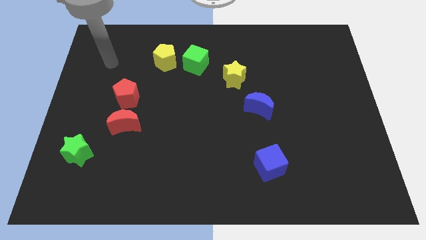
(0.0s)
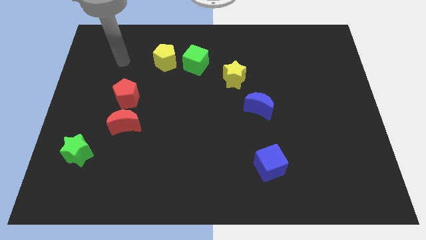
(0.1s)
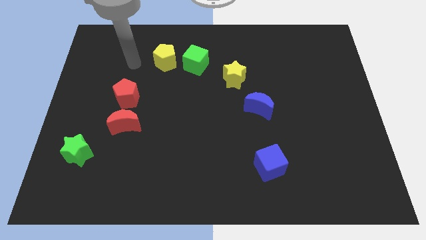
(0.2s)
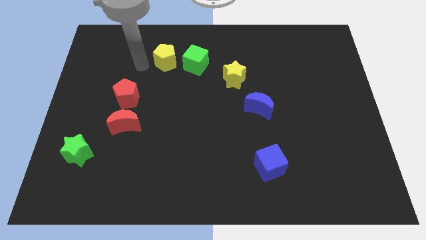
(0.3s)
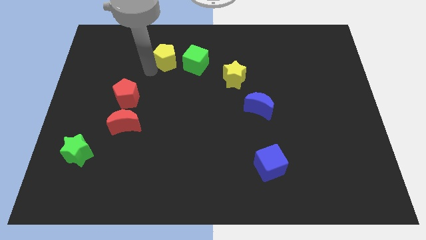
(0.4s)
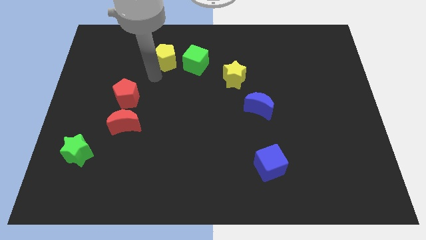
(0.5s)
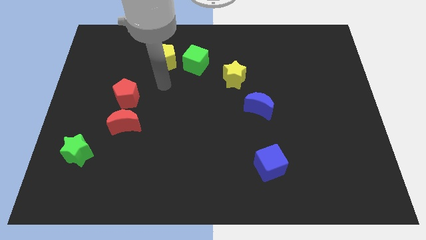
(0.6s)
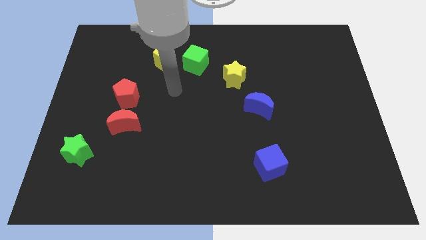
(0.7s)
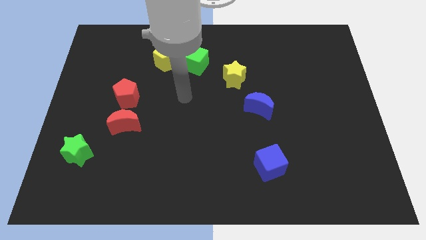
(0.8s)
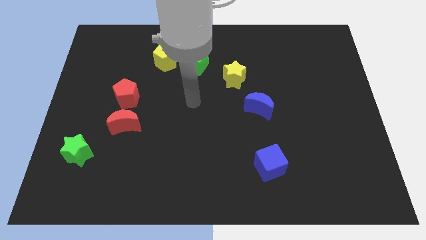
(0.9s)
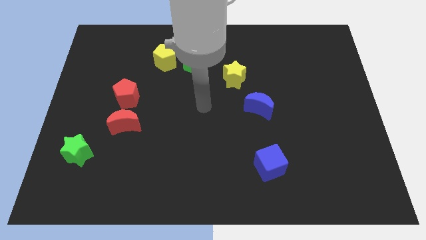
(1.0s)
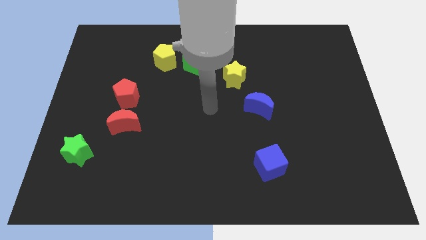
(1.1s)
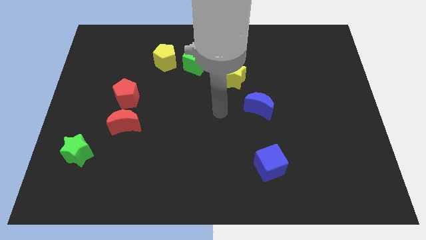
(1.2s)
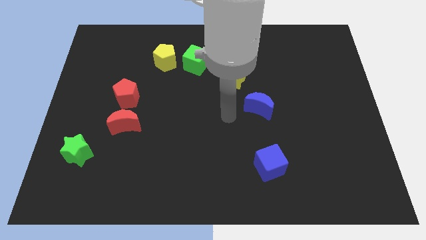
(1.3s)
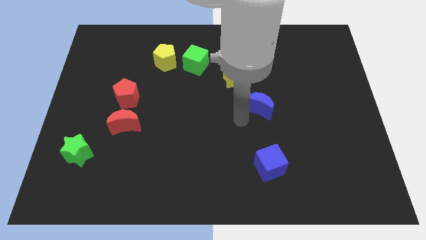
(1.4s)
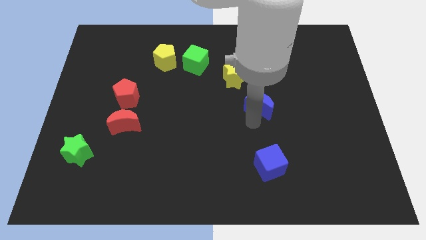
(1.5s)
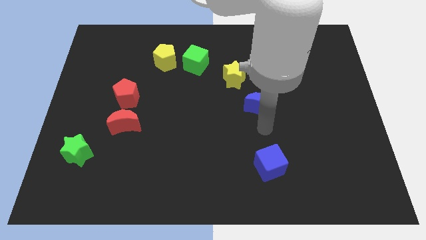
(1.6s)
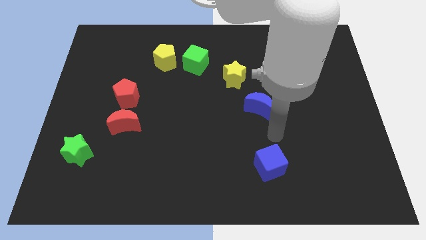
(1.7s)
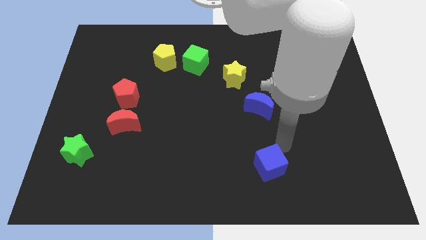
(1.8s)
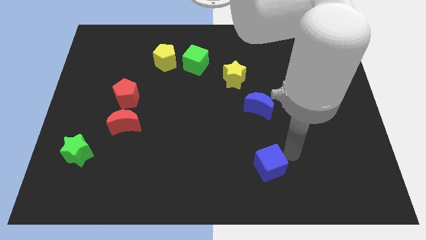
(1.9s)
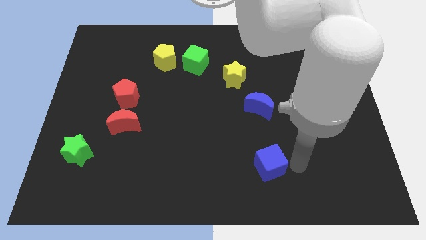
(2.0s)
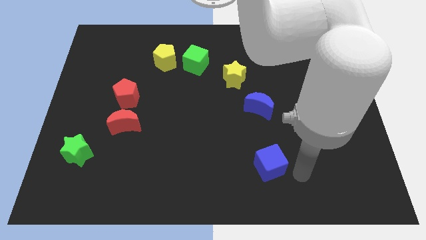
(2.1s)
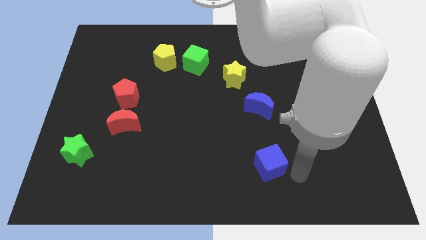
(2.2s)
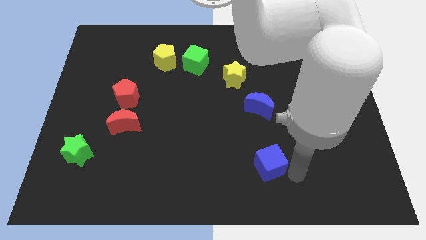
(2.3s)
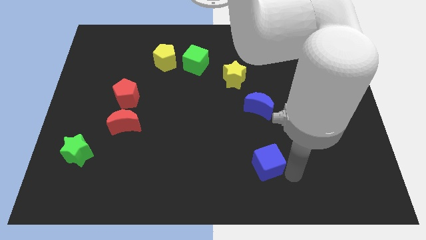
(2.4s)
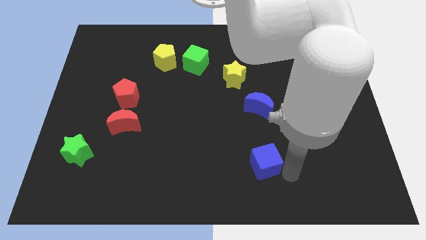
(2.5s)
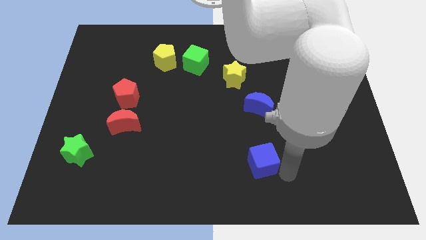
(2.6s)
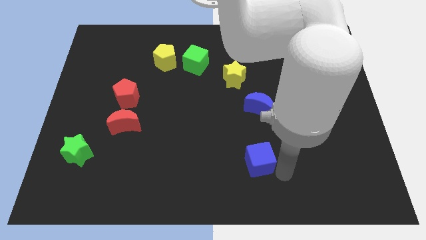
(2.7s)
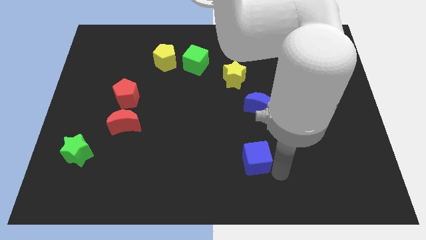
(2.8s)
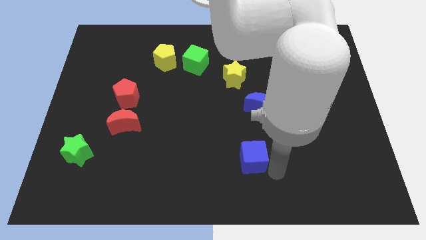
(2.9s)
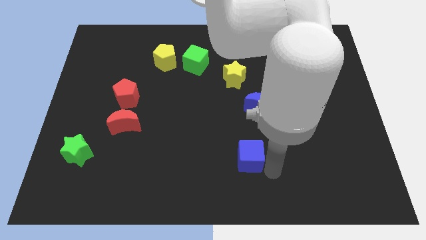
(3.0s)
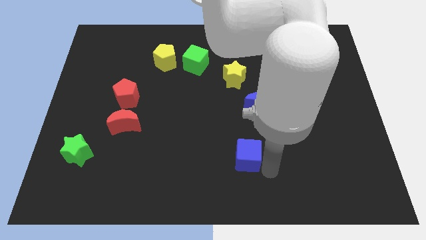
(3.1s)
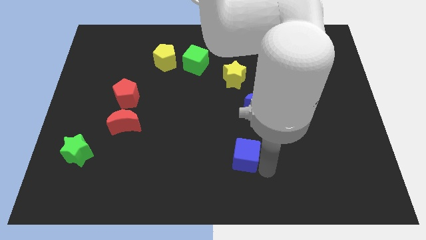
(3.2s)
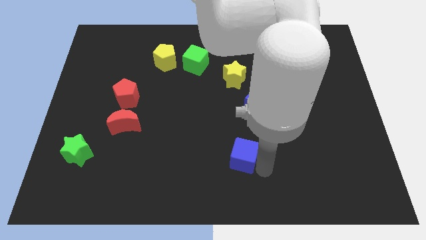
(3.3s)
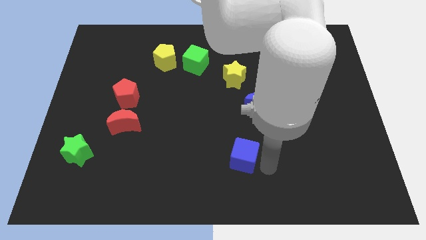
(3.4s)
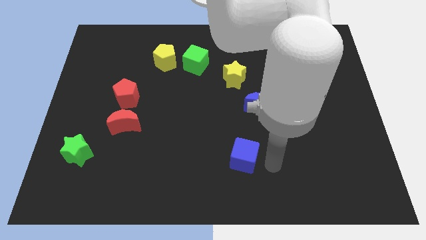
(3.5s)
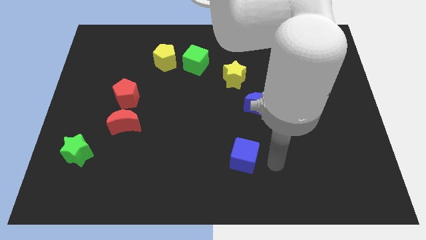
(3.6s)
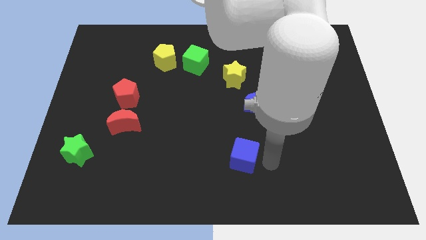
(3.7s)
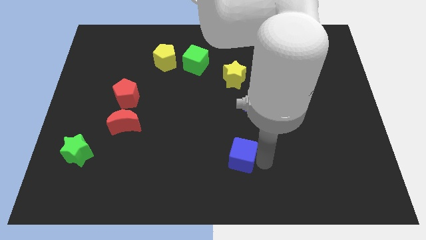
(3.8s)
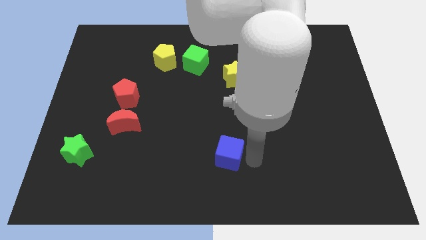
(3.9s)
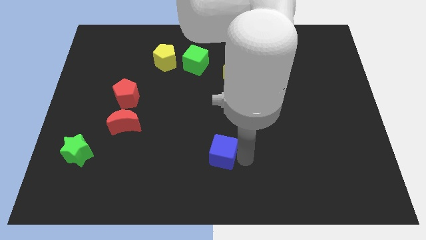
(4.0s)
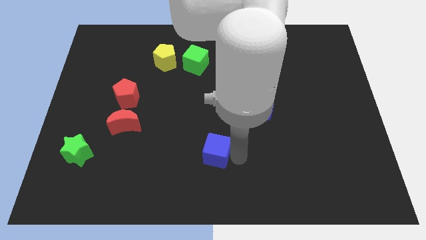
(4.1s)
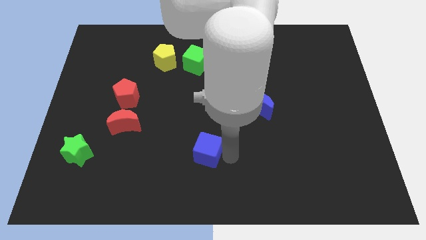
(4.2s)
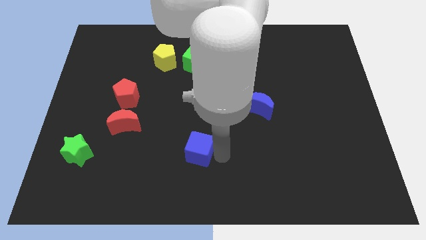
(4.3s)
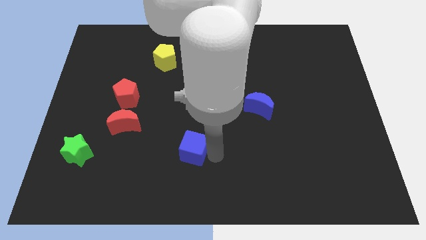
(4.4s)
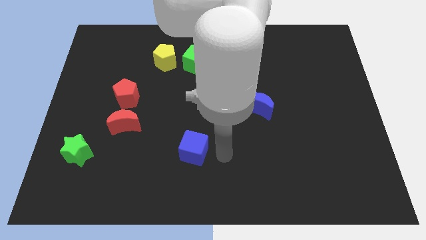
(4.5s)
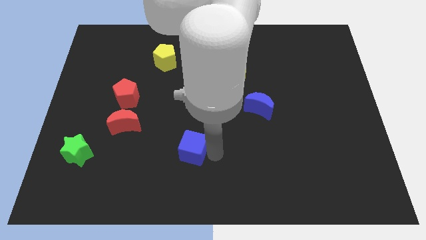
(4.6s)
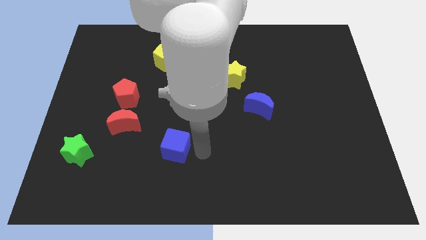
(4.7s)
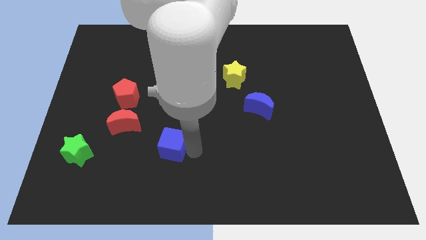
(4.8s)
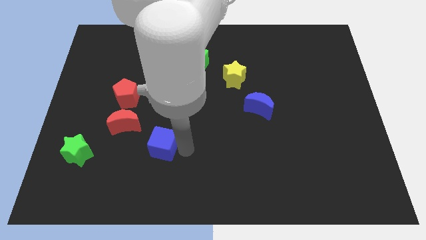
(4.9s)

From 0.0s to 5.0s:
put the blue cube to the bottom right side of the red moon

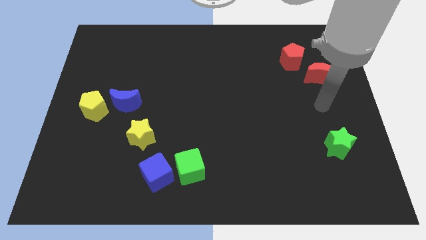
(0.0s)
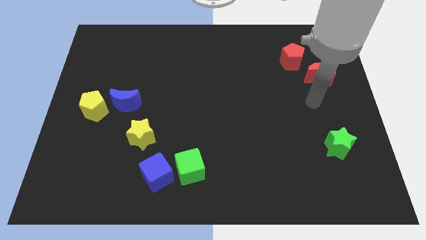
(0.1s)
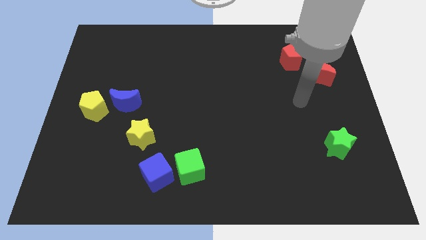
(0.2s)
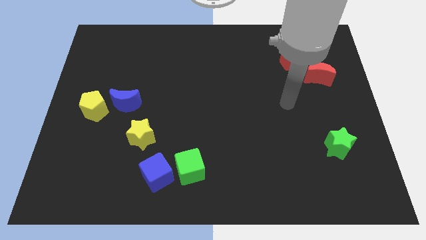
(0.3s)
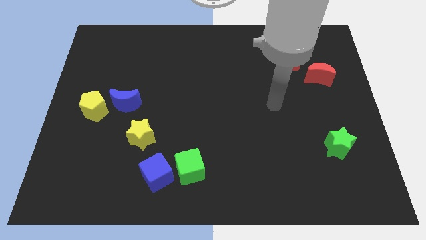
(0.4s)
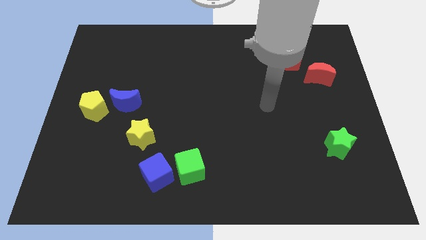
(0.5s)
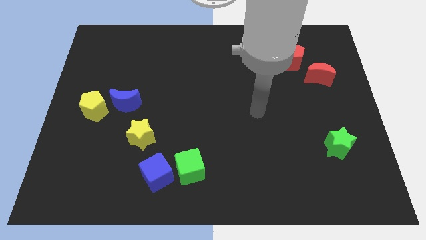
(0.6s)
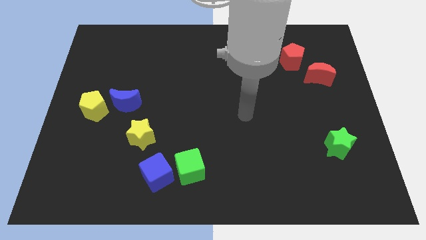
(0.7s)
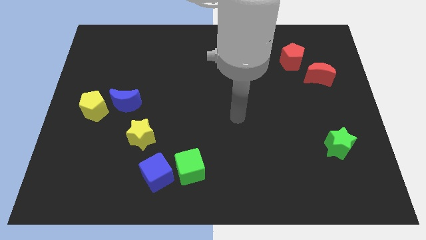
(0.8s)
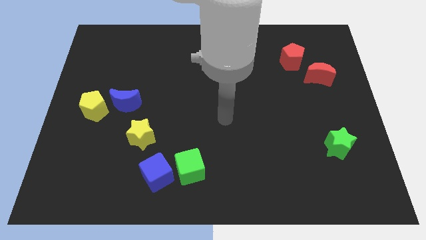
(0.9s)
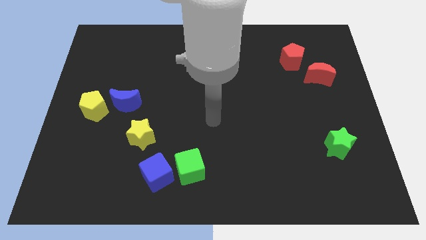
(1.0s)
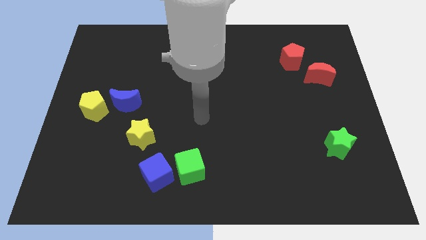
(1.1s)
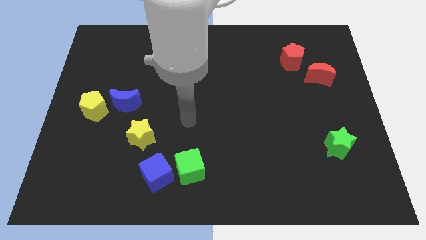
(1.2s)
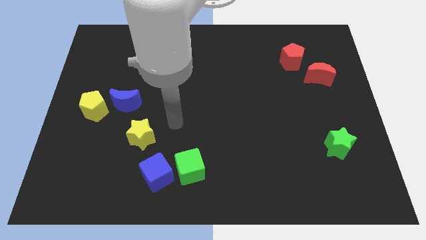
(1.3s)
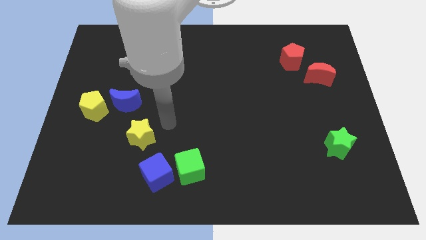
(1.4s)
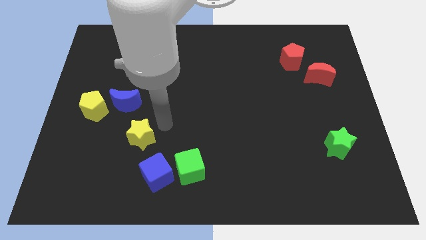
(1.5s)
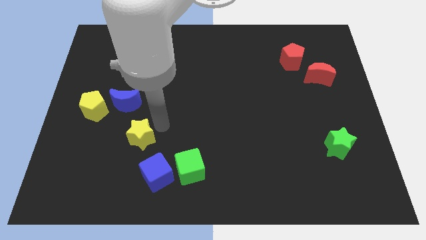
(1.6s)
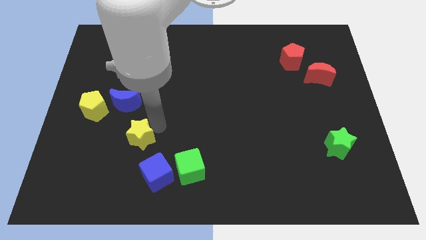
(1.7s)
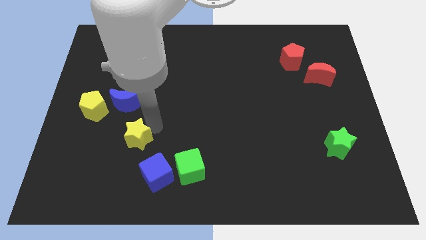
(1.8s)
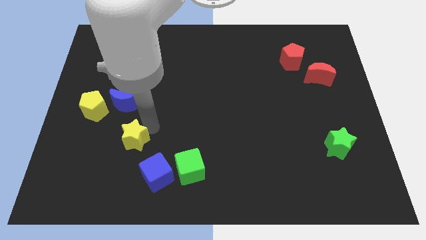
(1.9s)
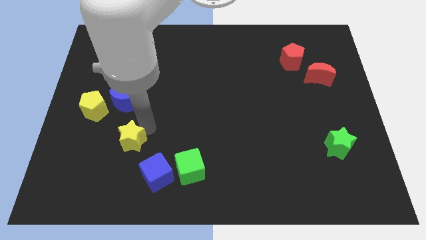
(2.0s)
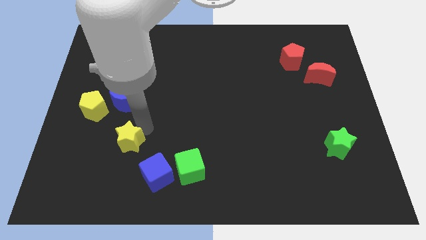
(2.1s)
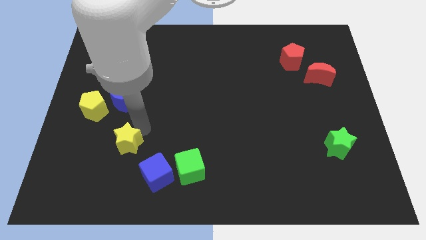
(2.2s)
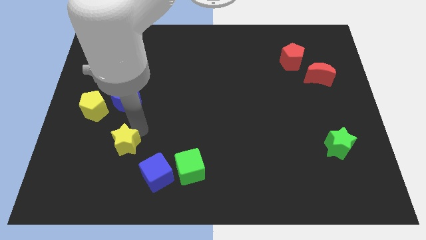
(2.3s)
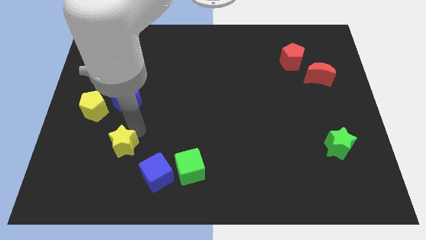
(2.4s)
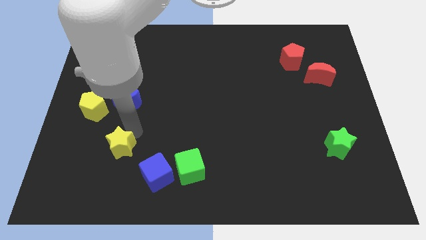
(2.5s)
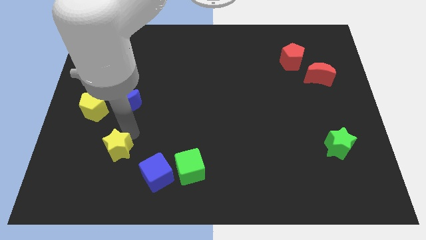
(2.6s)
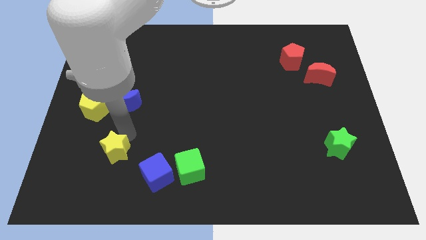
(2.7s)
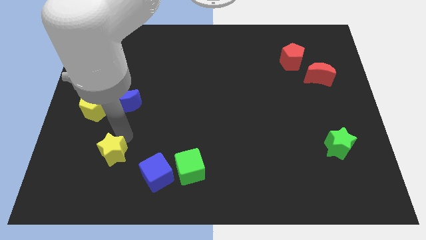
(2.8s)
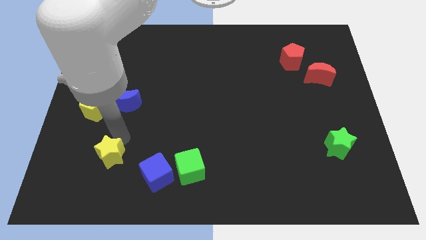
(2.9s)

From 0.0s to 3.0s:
put the yellow star to the left of the blue cube
